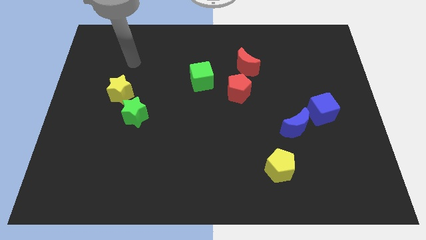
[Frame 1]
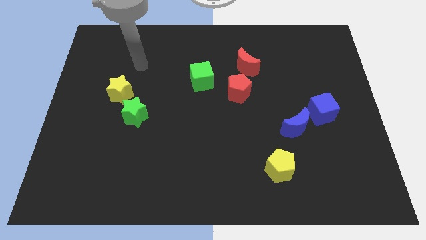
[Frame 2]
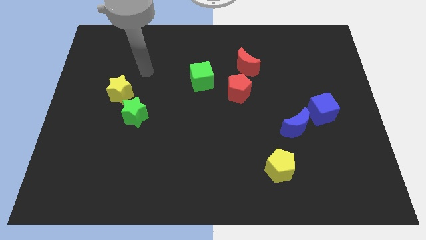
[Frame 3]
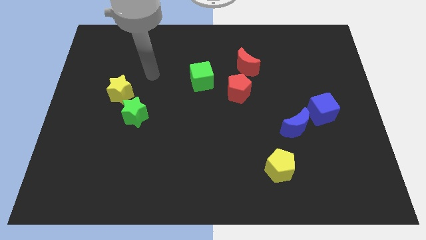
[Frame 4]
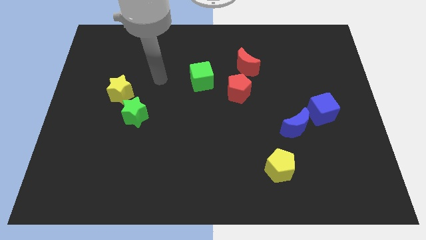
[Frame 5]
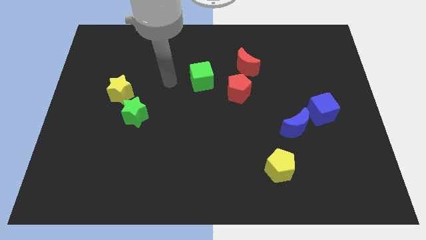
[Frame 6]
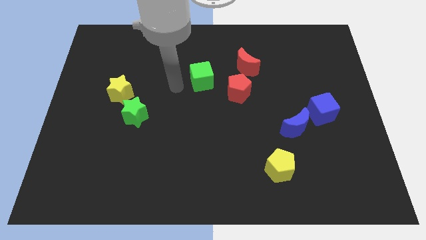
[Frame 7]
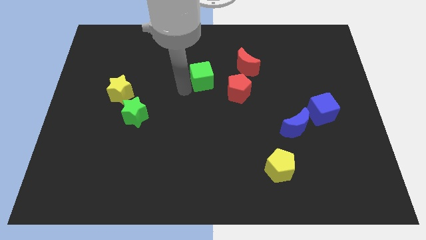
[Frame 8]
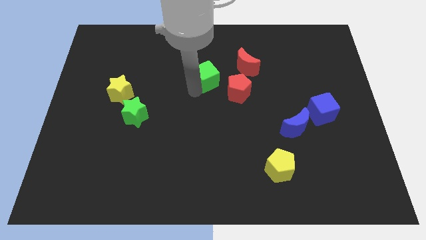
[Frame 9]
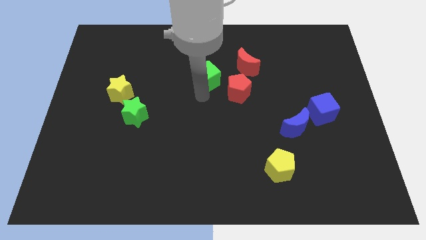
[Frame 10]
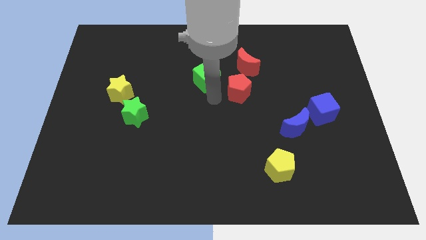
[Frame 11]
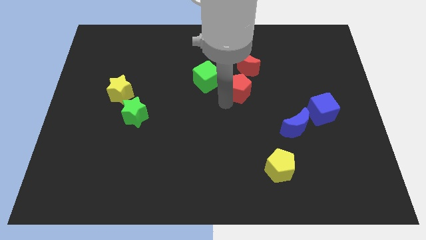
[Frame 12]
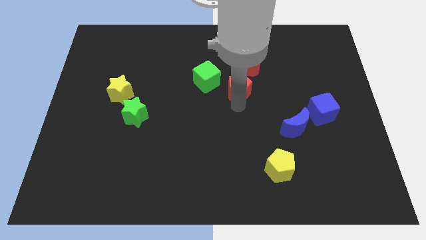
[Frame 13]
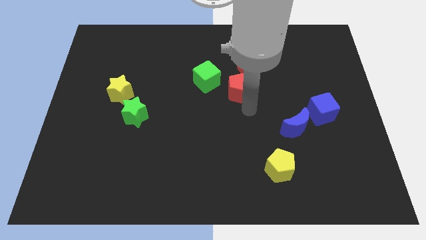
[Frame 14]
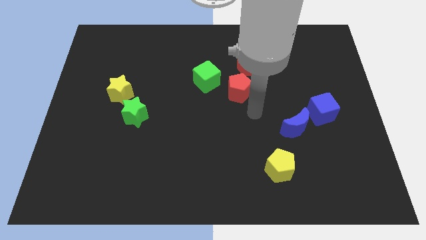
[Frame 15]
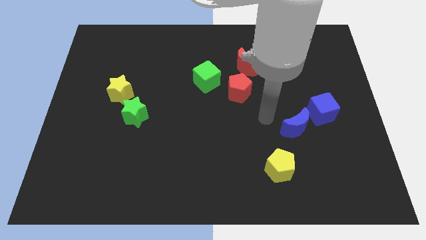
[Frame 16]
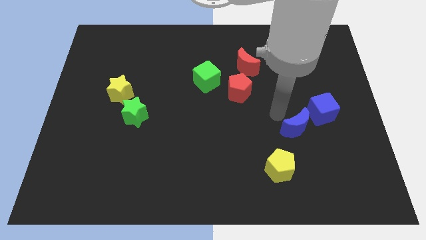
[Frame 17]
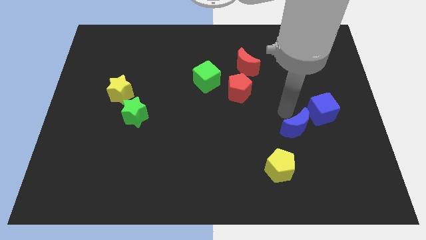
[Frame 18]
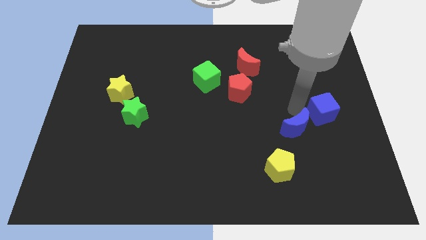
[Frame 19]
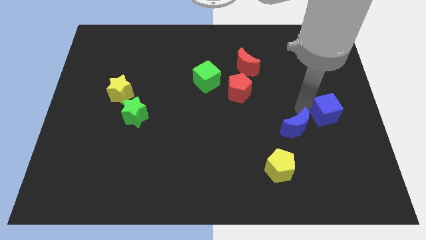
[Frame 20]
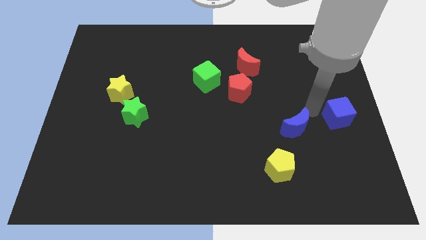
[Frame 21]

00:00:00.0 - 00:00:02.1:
pull the blue moon apart from the blue cube

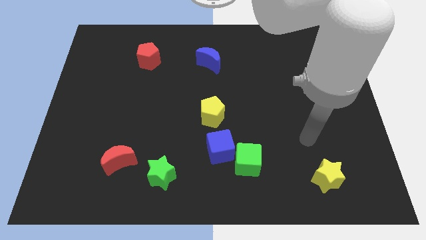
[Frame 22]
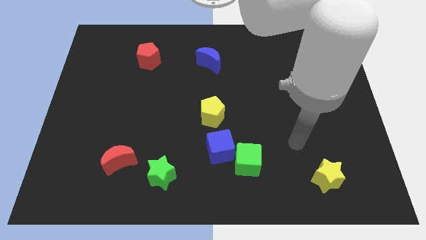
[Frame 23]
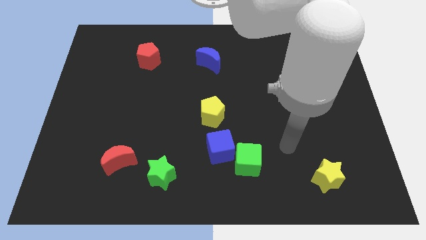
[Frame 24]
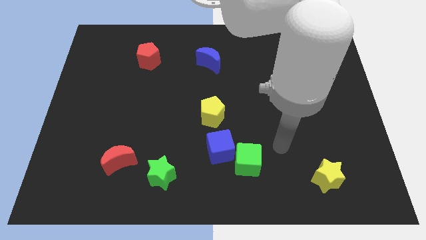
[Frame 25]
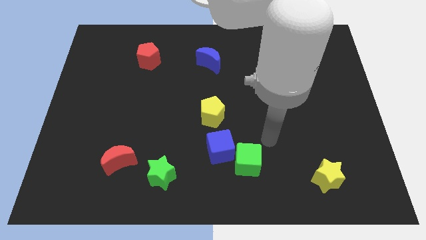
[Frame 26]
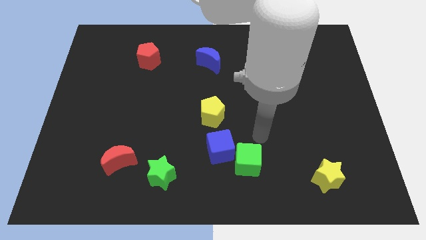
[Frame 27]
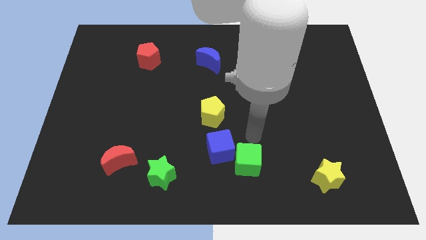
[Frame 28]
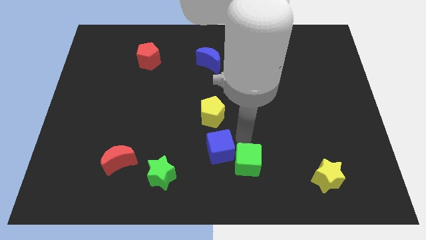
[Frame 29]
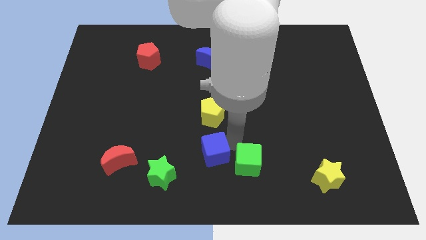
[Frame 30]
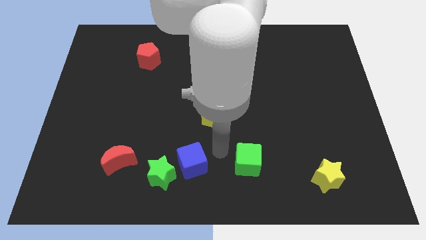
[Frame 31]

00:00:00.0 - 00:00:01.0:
pull the green cube apart from the blue cube

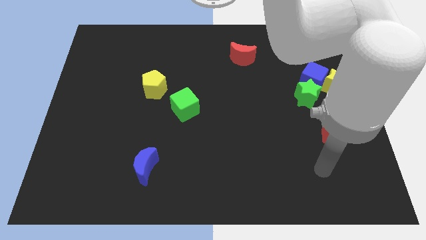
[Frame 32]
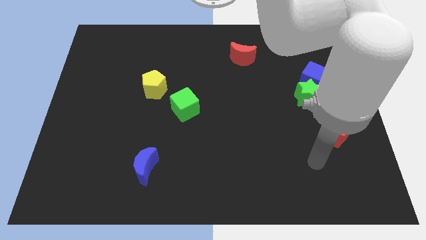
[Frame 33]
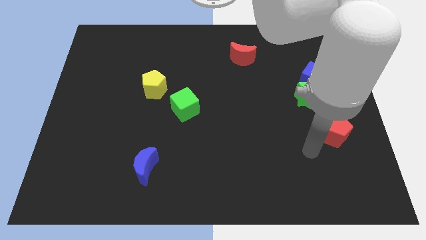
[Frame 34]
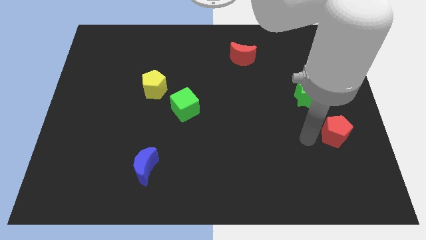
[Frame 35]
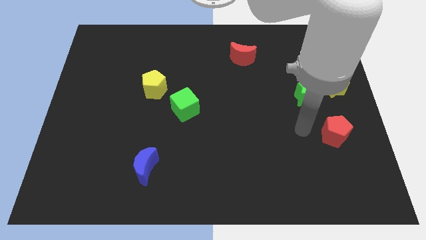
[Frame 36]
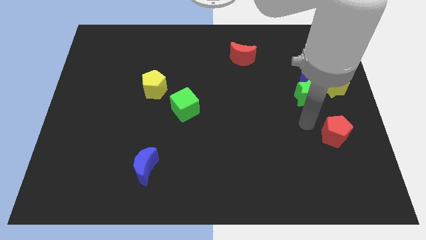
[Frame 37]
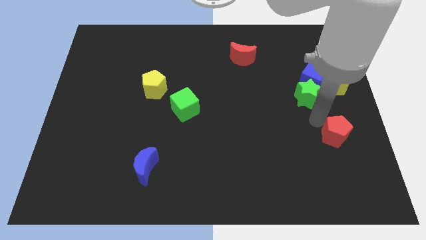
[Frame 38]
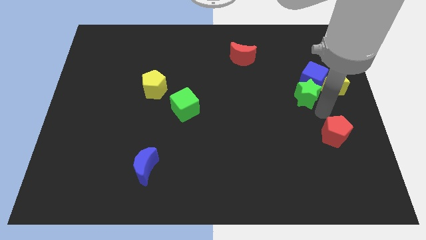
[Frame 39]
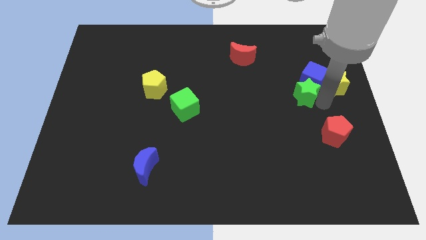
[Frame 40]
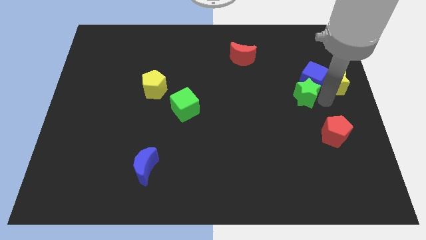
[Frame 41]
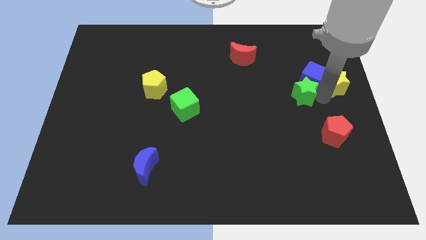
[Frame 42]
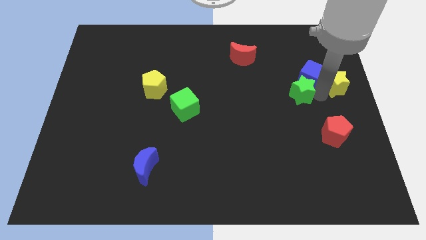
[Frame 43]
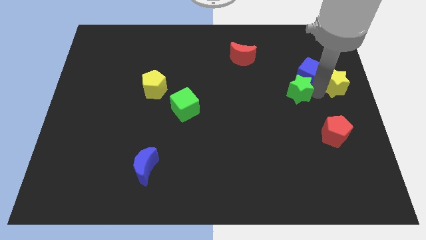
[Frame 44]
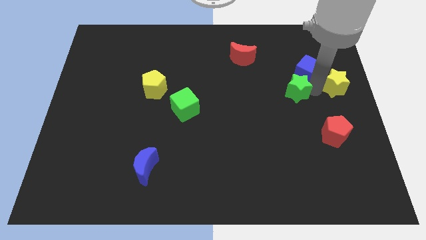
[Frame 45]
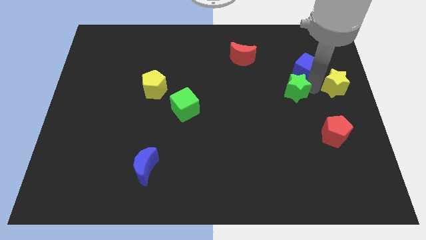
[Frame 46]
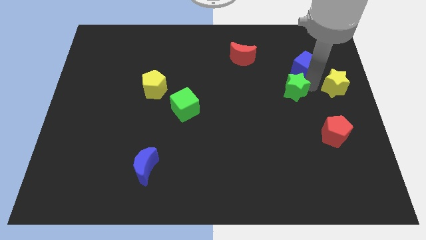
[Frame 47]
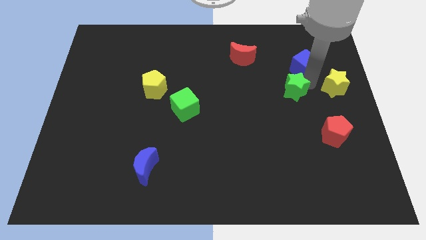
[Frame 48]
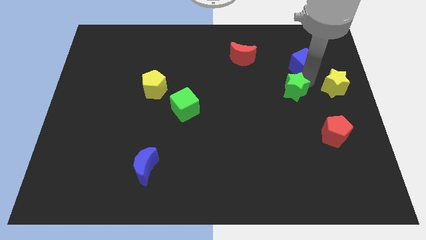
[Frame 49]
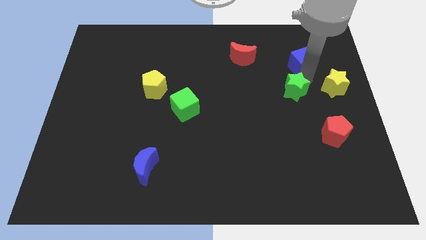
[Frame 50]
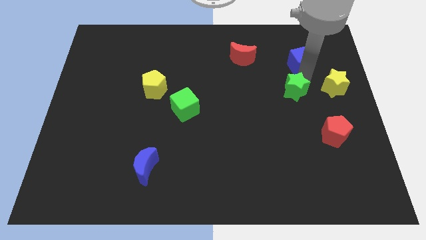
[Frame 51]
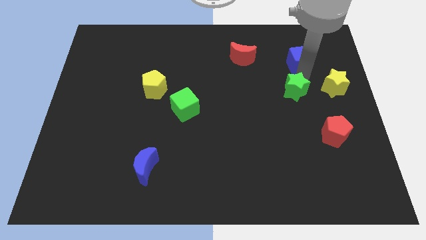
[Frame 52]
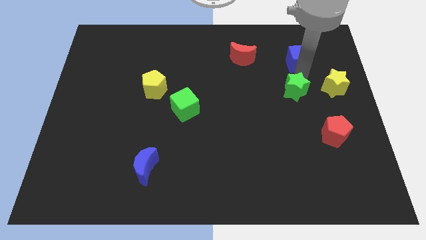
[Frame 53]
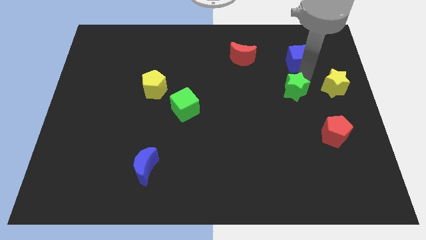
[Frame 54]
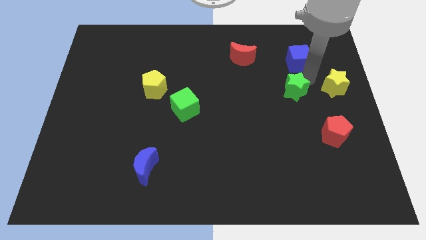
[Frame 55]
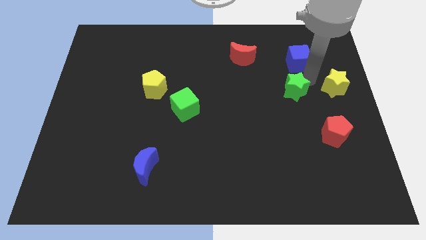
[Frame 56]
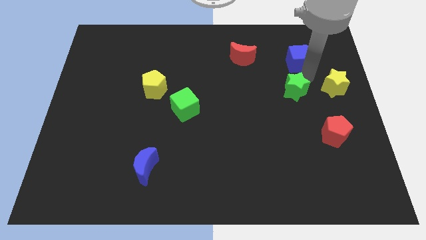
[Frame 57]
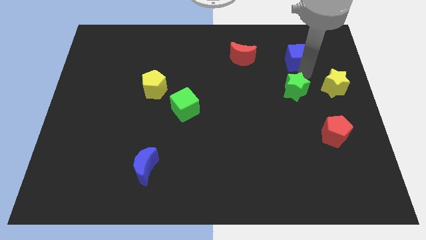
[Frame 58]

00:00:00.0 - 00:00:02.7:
separate the blue cube from the yellow star and green star

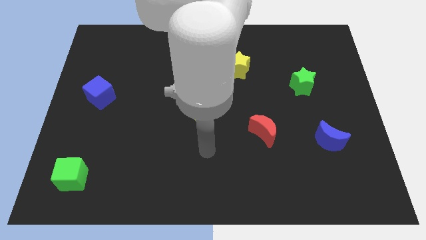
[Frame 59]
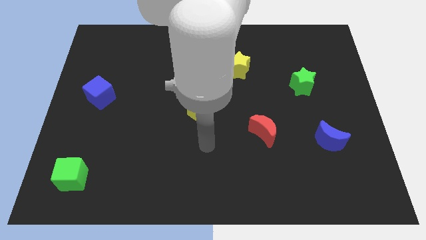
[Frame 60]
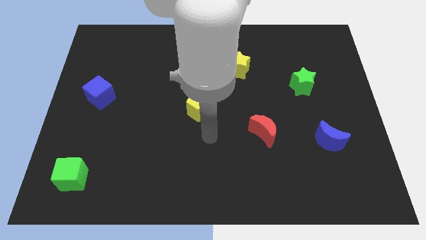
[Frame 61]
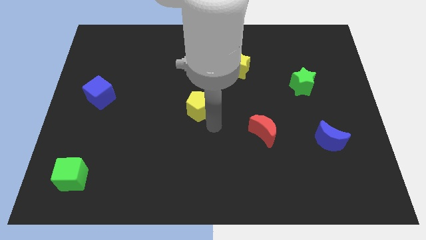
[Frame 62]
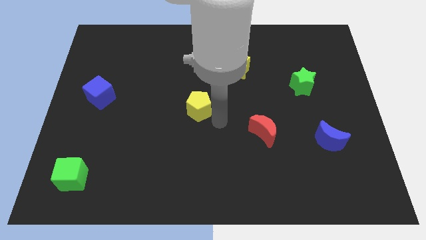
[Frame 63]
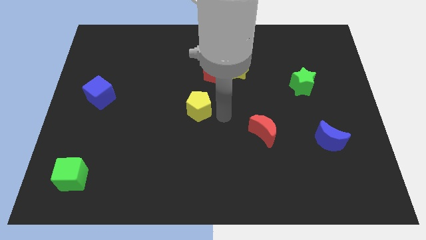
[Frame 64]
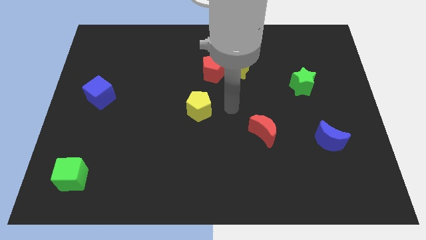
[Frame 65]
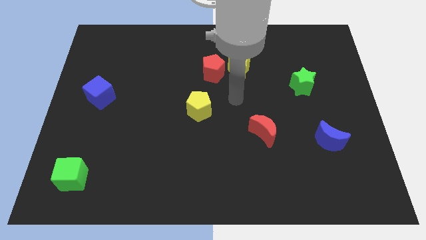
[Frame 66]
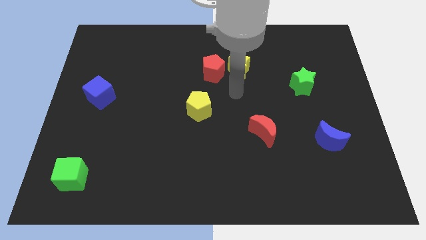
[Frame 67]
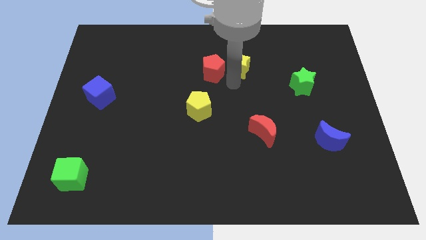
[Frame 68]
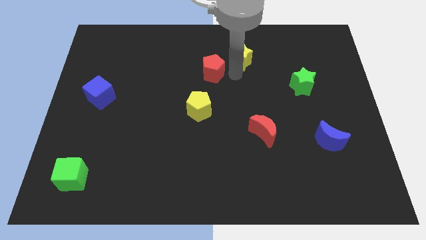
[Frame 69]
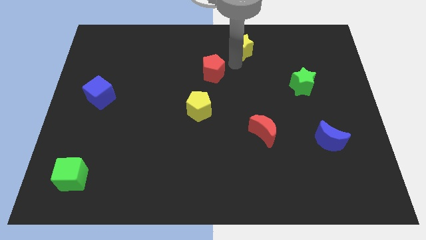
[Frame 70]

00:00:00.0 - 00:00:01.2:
separate the red pentagon from the yellow star

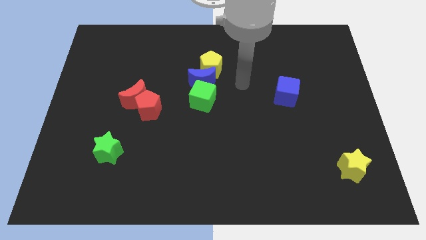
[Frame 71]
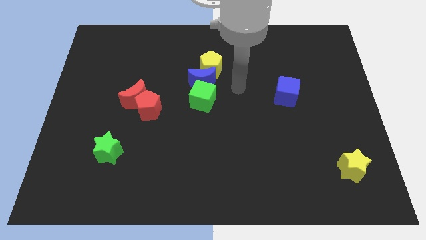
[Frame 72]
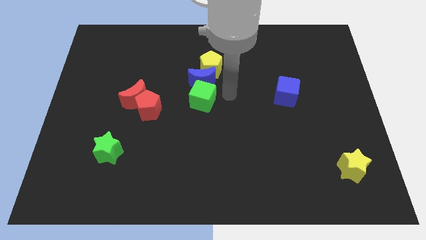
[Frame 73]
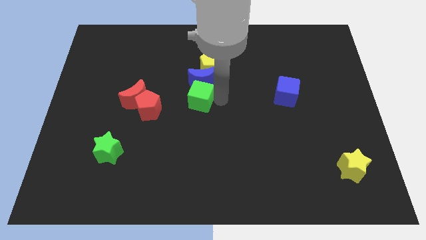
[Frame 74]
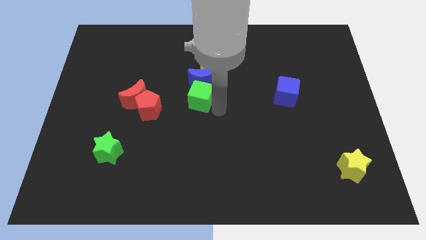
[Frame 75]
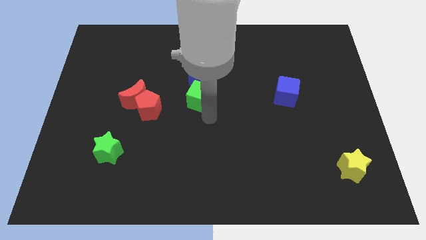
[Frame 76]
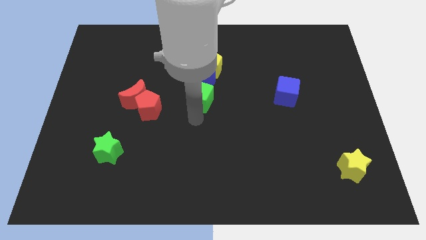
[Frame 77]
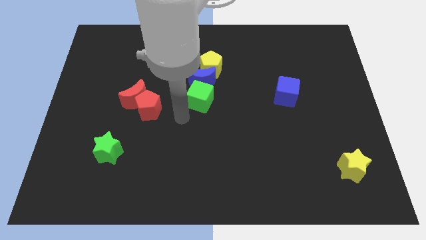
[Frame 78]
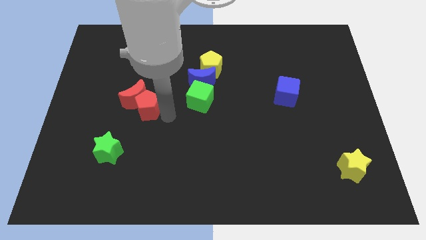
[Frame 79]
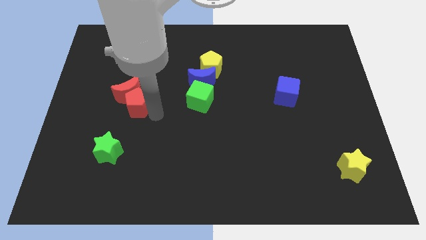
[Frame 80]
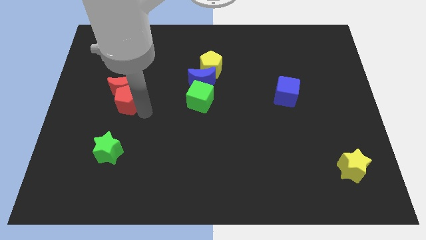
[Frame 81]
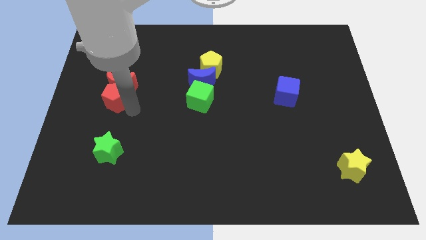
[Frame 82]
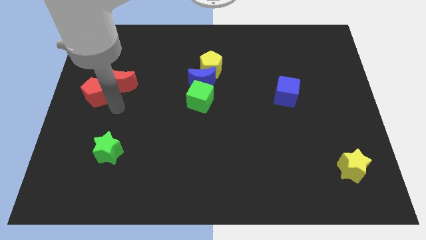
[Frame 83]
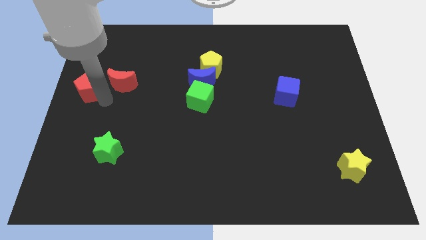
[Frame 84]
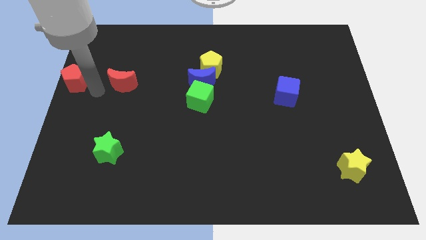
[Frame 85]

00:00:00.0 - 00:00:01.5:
pull the red moon apart from the red pentagon

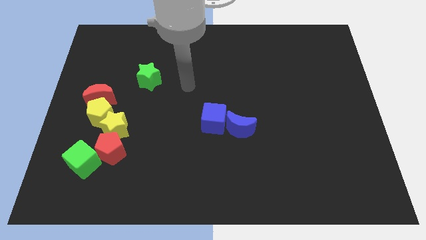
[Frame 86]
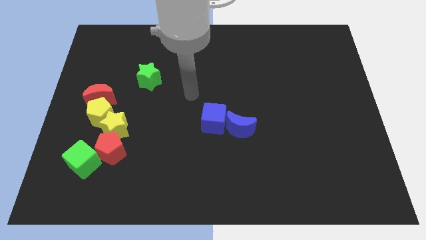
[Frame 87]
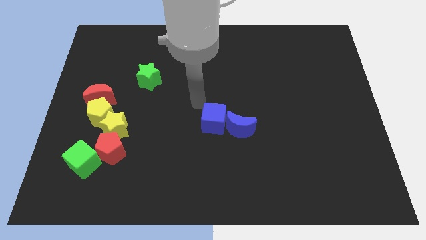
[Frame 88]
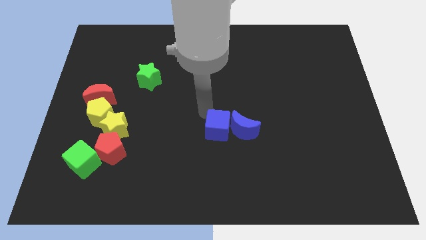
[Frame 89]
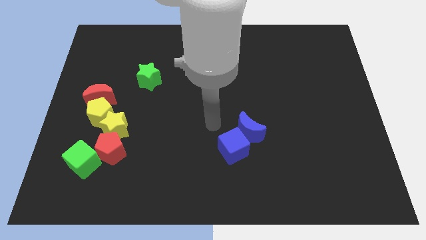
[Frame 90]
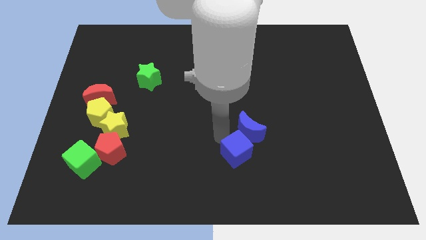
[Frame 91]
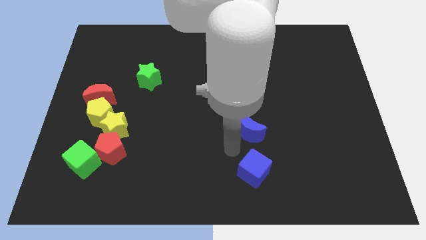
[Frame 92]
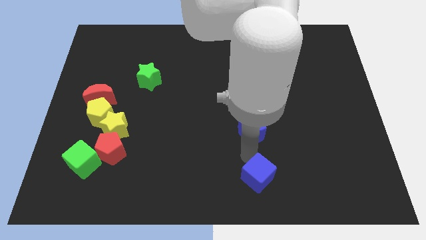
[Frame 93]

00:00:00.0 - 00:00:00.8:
move the blue moon away from the blue cube
